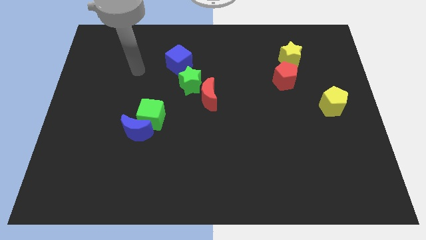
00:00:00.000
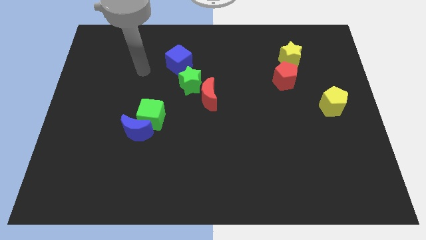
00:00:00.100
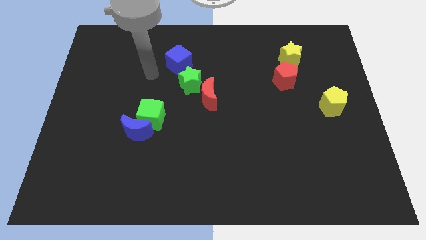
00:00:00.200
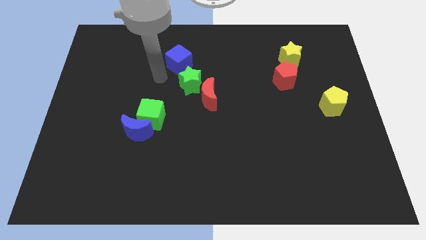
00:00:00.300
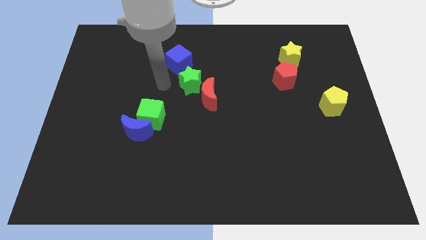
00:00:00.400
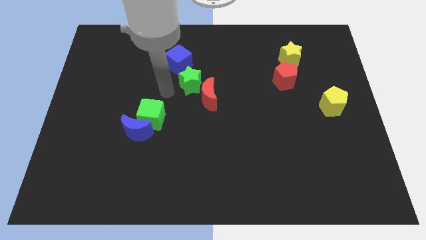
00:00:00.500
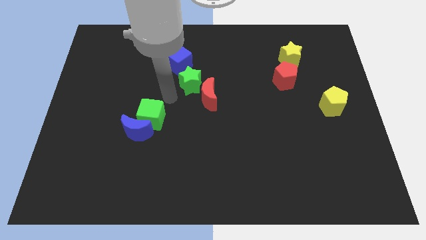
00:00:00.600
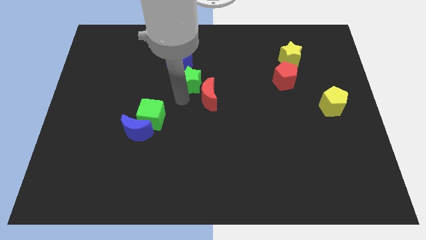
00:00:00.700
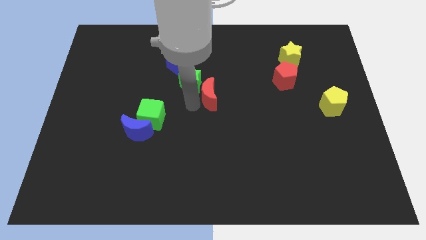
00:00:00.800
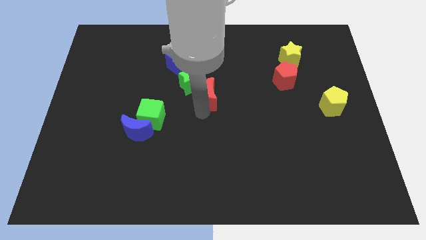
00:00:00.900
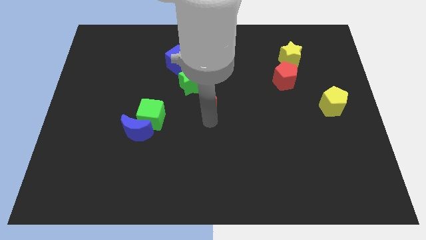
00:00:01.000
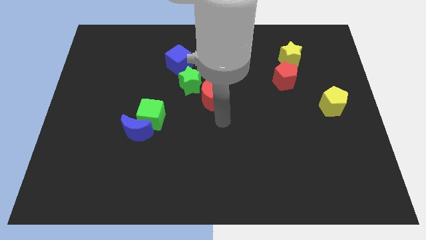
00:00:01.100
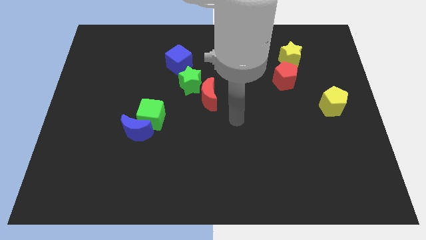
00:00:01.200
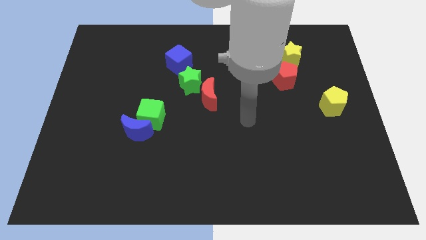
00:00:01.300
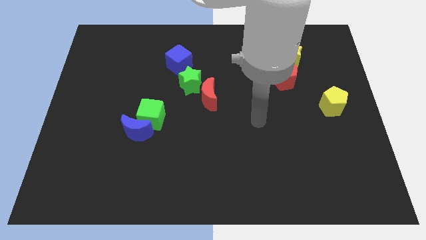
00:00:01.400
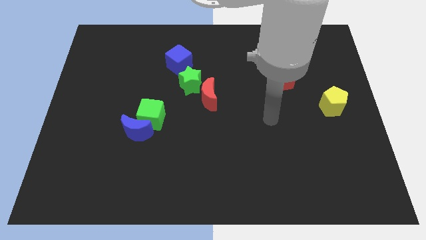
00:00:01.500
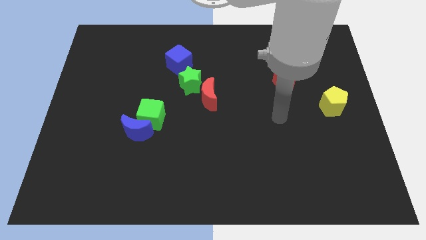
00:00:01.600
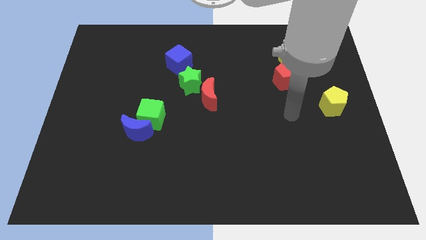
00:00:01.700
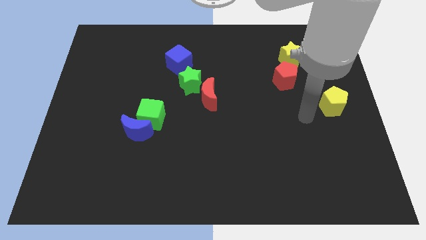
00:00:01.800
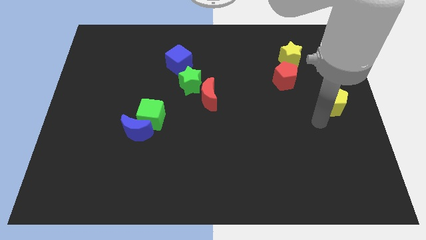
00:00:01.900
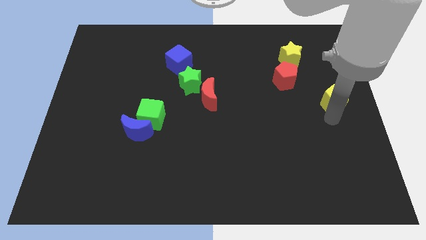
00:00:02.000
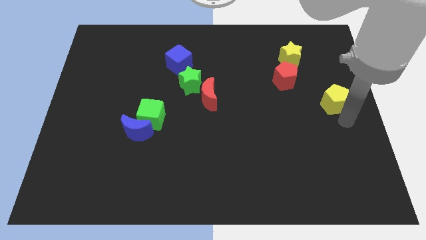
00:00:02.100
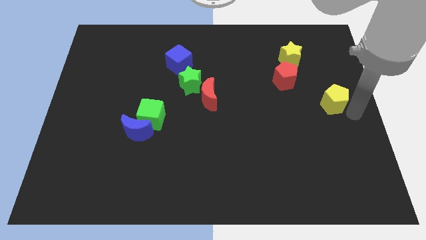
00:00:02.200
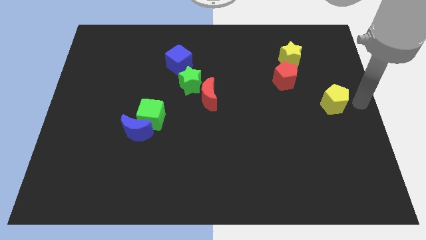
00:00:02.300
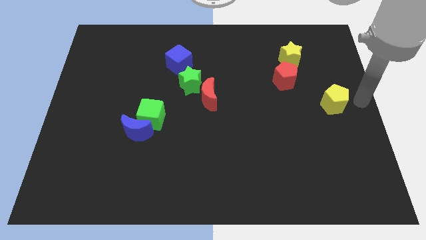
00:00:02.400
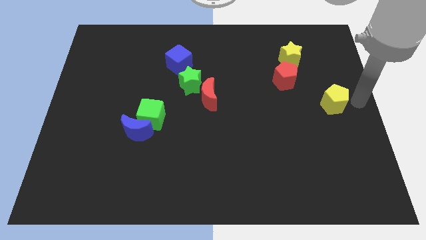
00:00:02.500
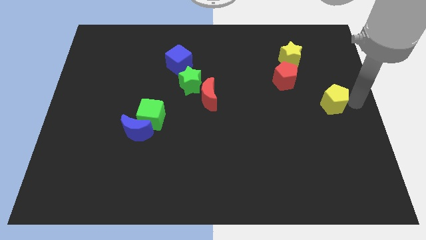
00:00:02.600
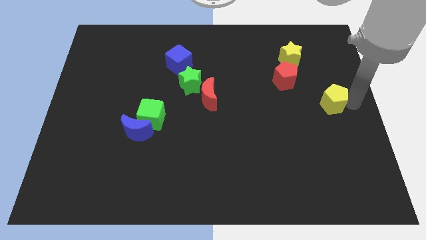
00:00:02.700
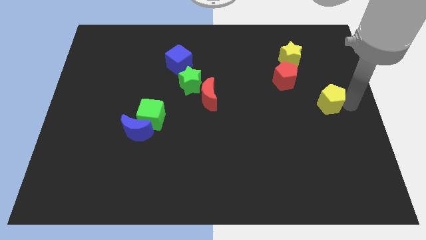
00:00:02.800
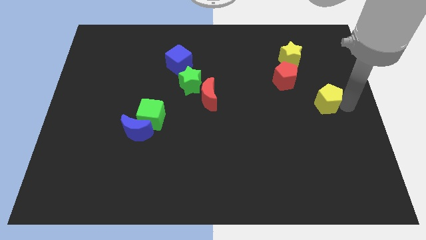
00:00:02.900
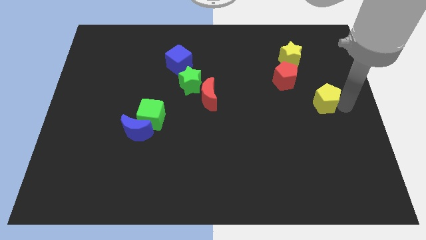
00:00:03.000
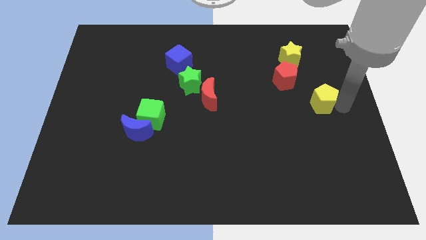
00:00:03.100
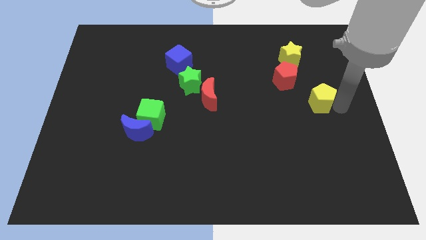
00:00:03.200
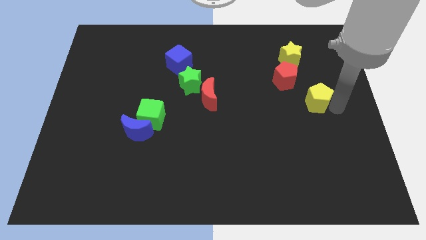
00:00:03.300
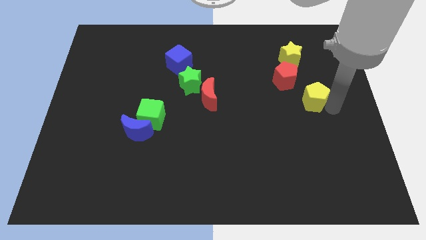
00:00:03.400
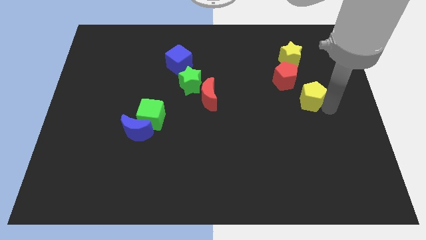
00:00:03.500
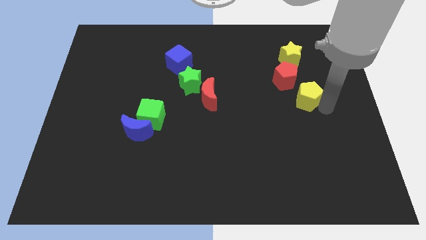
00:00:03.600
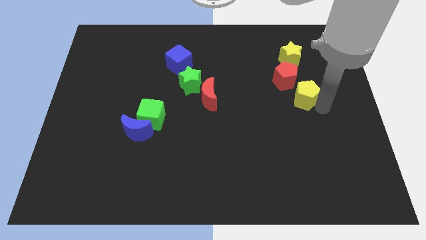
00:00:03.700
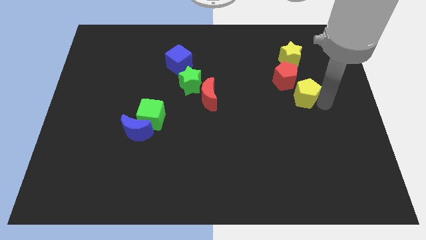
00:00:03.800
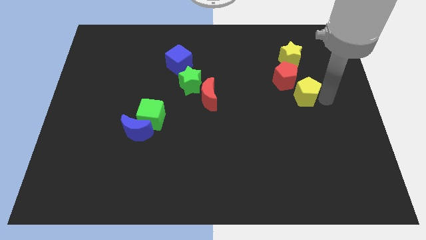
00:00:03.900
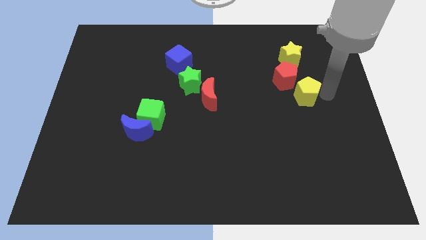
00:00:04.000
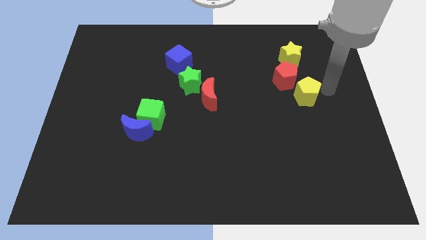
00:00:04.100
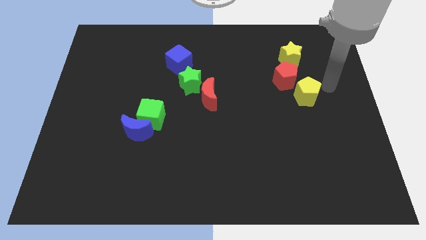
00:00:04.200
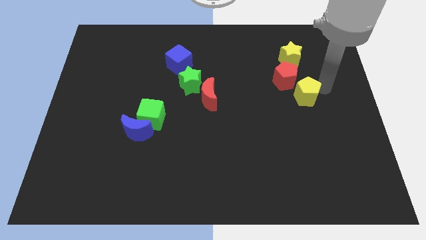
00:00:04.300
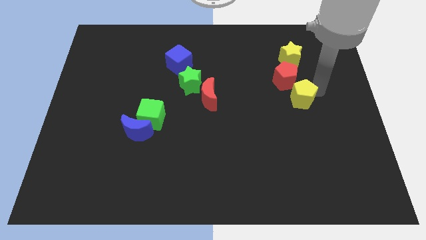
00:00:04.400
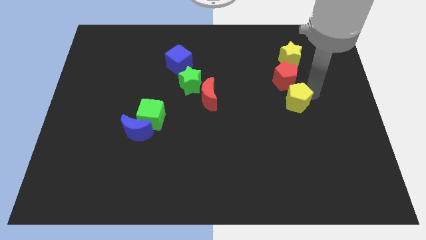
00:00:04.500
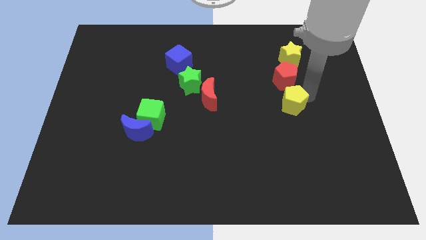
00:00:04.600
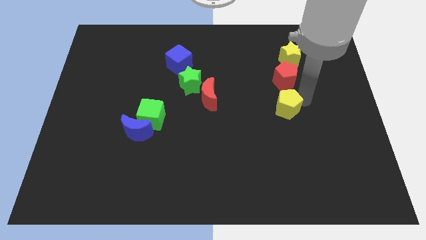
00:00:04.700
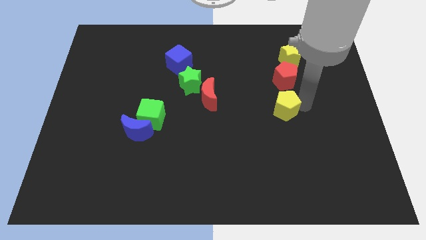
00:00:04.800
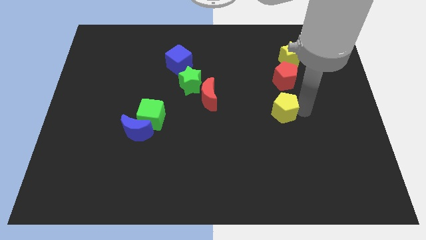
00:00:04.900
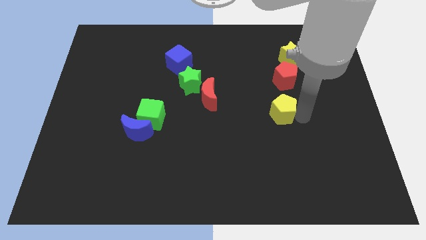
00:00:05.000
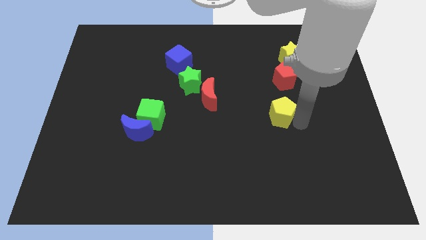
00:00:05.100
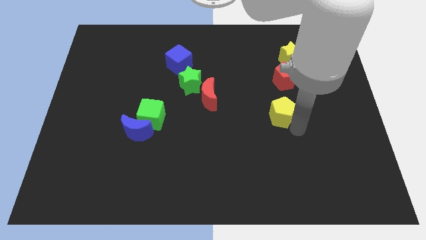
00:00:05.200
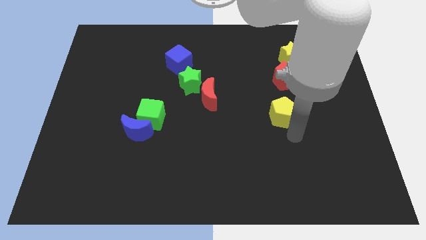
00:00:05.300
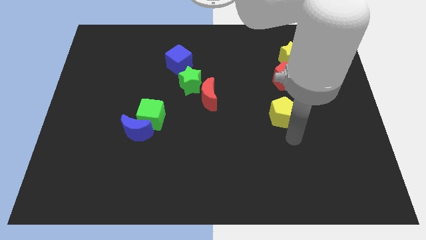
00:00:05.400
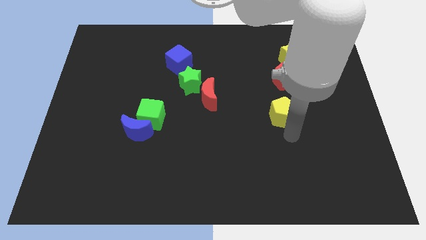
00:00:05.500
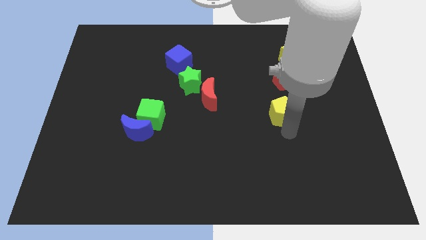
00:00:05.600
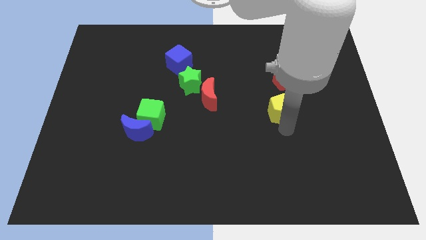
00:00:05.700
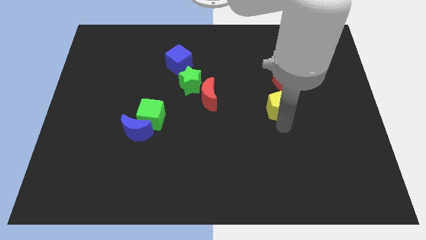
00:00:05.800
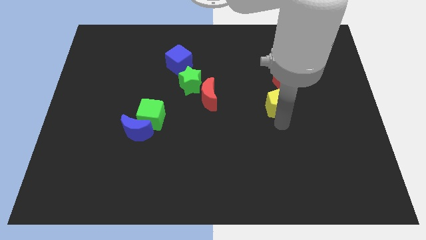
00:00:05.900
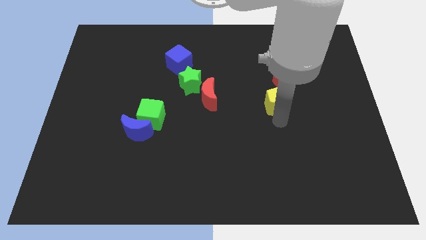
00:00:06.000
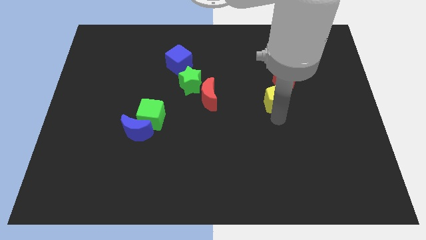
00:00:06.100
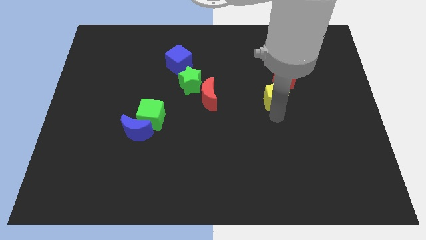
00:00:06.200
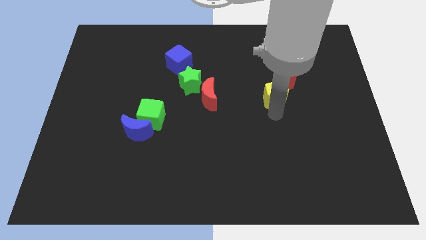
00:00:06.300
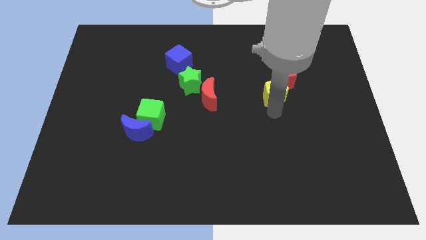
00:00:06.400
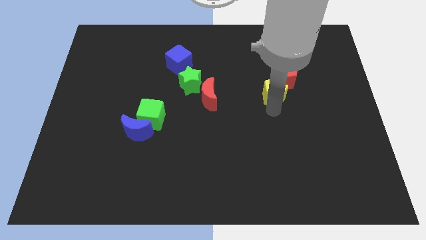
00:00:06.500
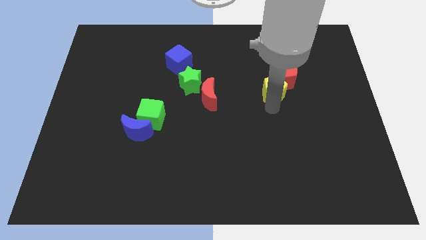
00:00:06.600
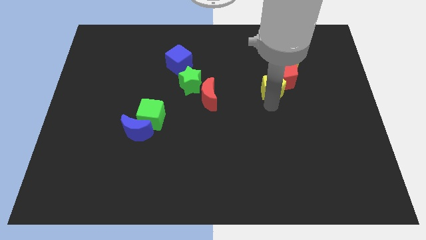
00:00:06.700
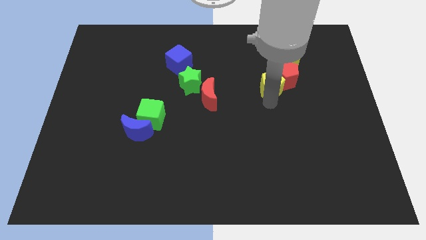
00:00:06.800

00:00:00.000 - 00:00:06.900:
push the yellow pentagon diagonally down and to the left of the yellow star
